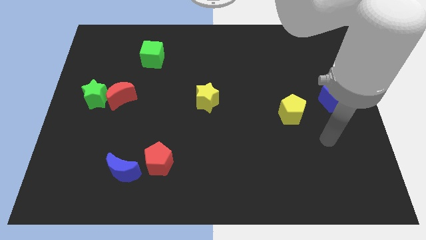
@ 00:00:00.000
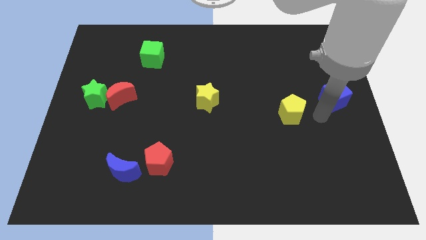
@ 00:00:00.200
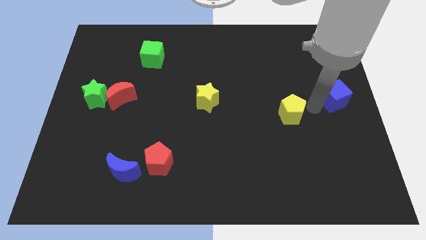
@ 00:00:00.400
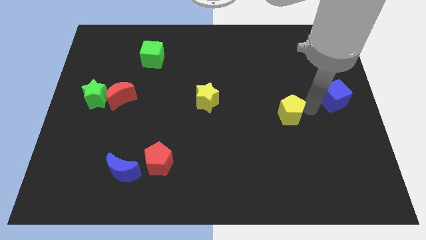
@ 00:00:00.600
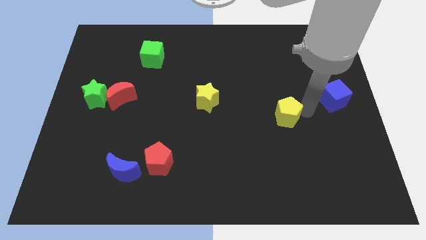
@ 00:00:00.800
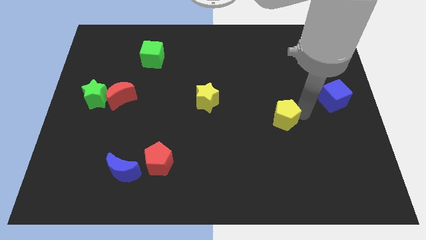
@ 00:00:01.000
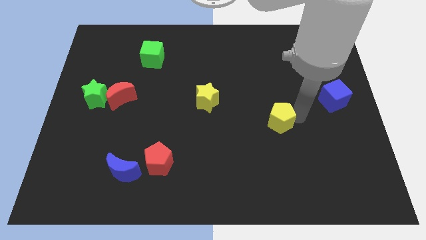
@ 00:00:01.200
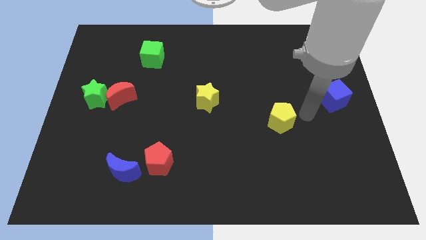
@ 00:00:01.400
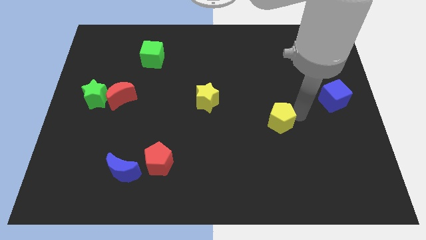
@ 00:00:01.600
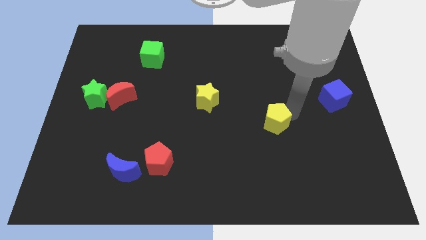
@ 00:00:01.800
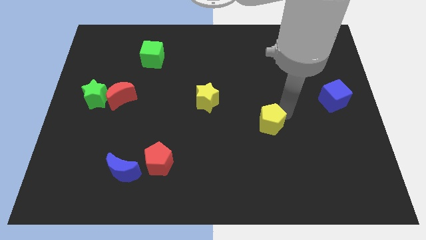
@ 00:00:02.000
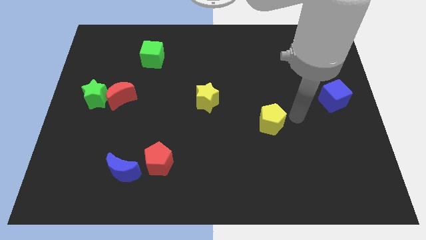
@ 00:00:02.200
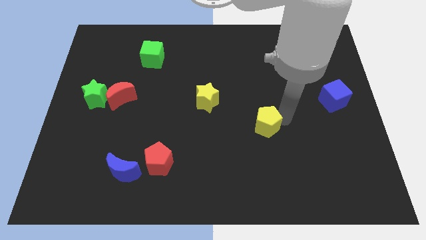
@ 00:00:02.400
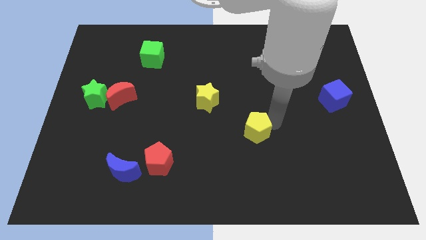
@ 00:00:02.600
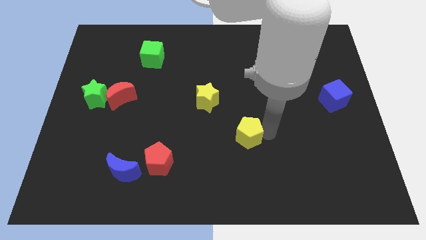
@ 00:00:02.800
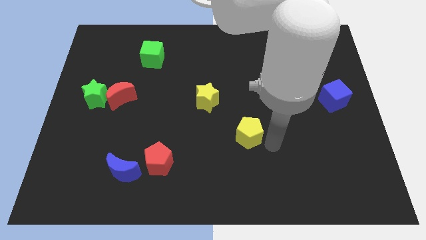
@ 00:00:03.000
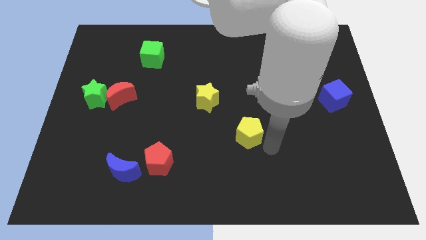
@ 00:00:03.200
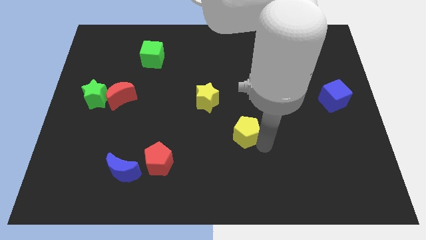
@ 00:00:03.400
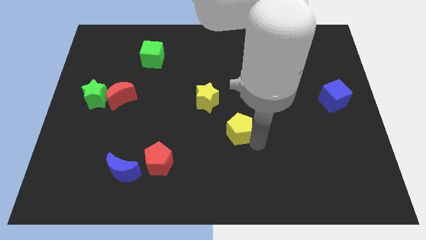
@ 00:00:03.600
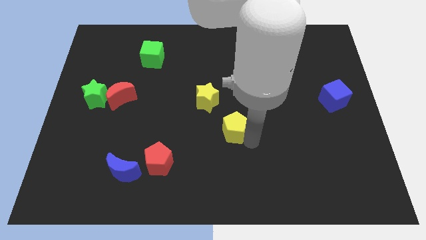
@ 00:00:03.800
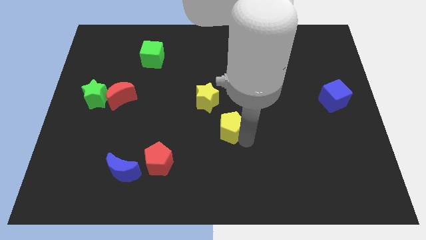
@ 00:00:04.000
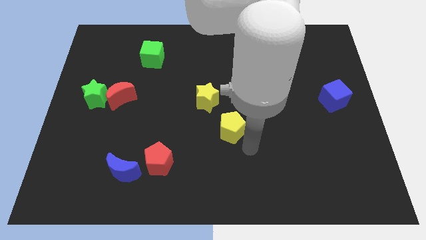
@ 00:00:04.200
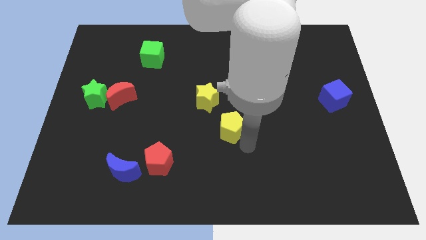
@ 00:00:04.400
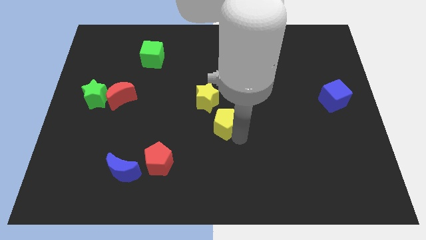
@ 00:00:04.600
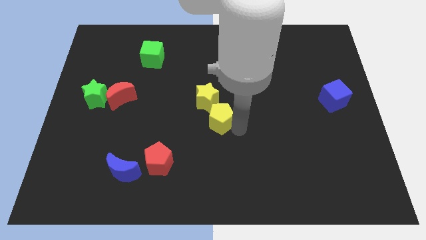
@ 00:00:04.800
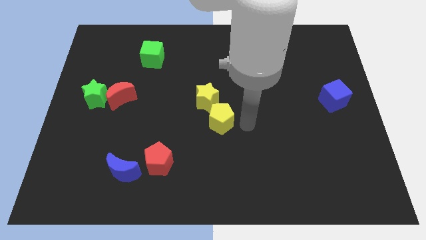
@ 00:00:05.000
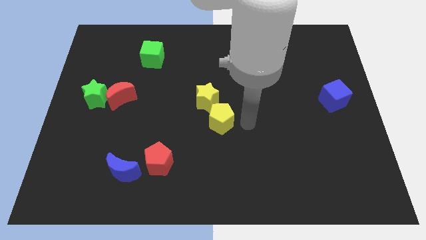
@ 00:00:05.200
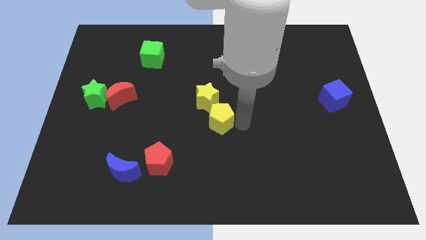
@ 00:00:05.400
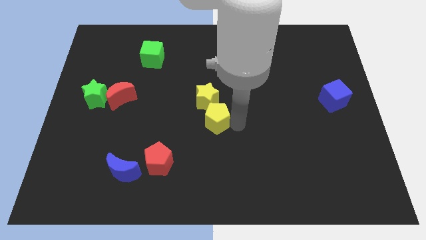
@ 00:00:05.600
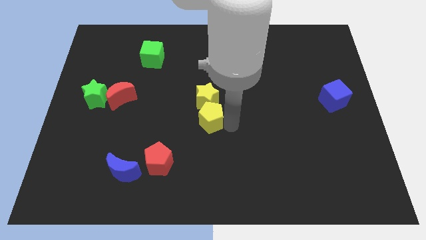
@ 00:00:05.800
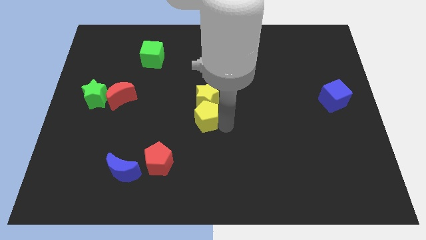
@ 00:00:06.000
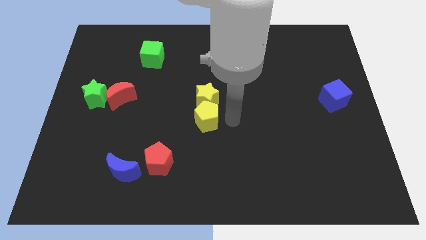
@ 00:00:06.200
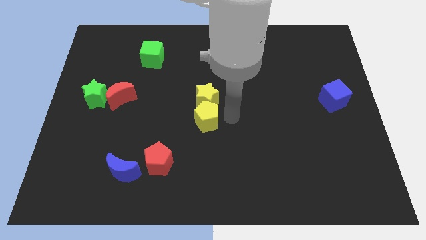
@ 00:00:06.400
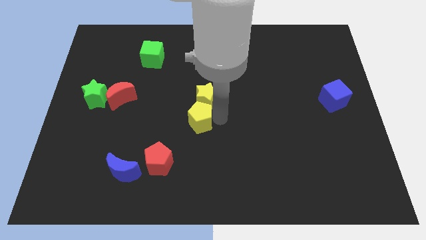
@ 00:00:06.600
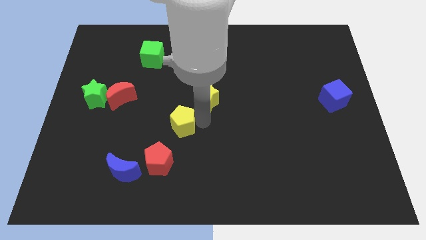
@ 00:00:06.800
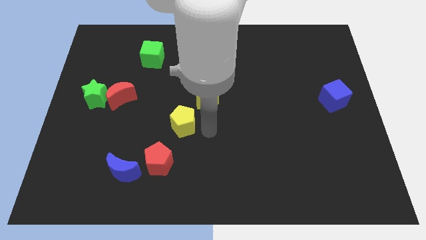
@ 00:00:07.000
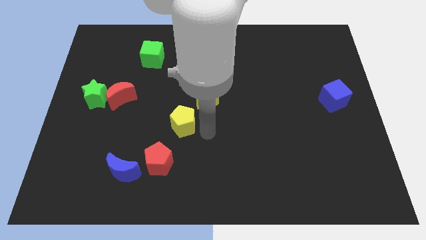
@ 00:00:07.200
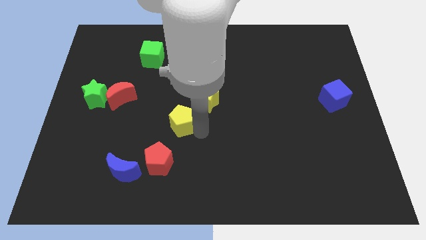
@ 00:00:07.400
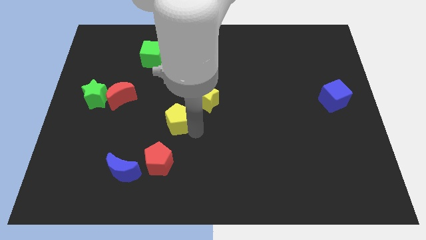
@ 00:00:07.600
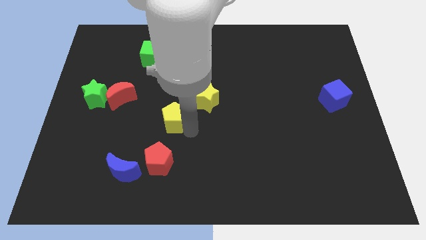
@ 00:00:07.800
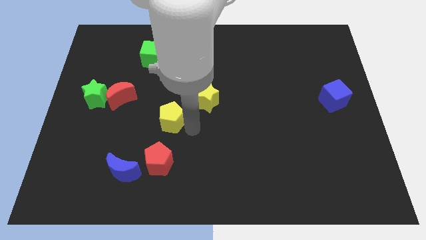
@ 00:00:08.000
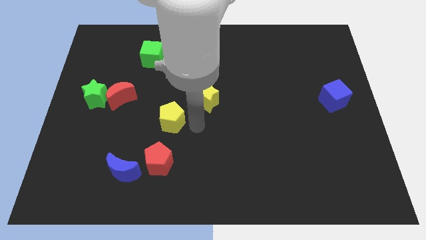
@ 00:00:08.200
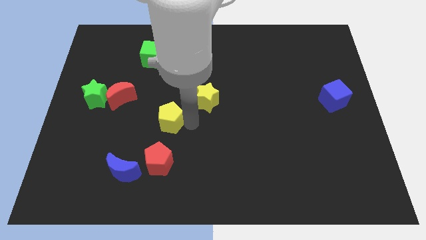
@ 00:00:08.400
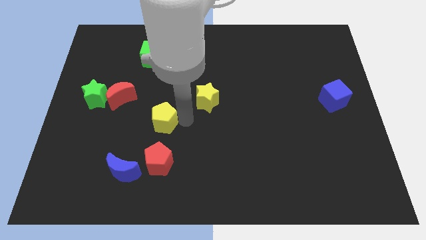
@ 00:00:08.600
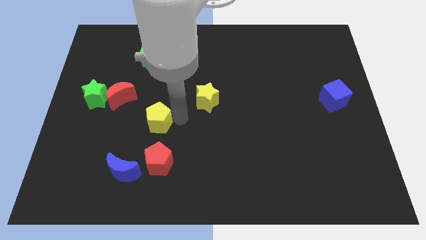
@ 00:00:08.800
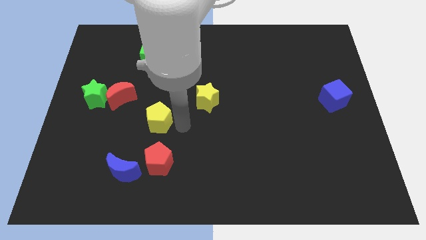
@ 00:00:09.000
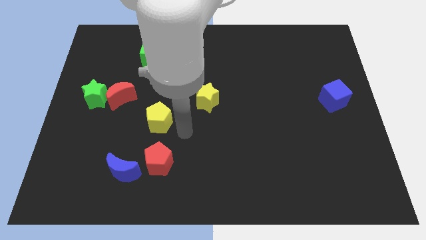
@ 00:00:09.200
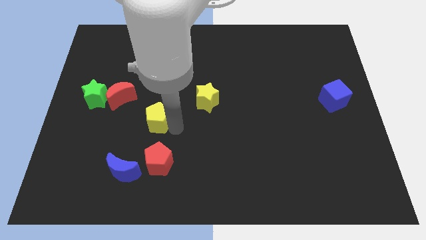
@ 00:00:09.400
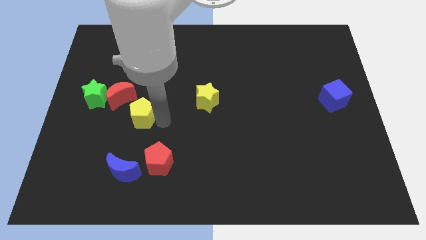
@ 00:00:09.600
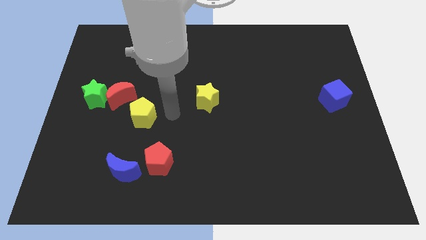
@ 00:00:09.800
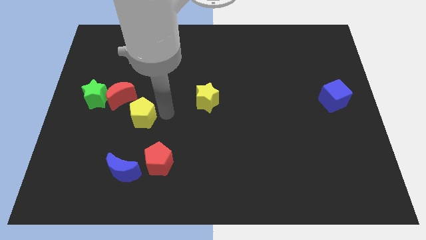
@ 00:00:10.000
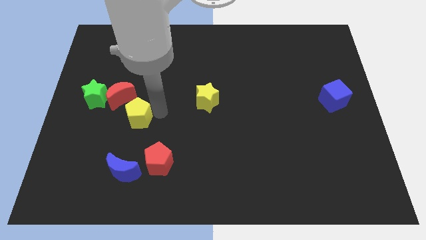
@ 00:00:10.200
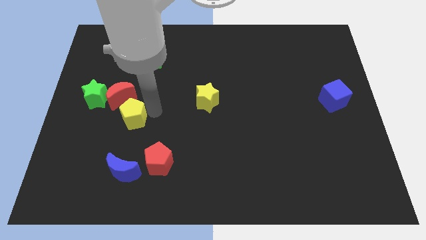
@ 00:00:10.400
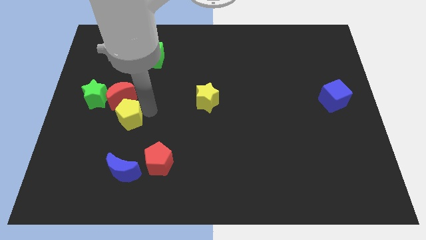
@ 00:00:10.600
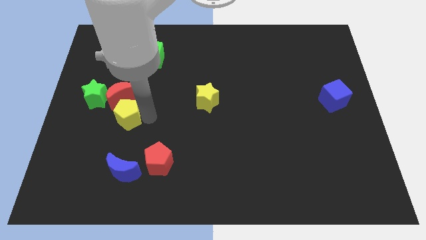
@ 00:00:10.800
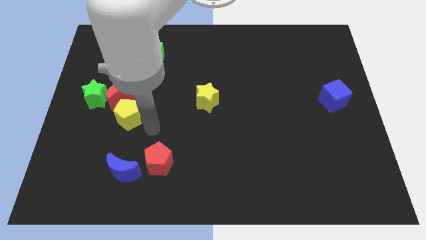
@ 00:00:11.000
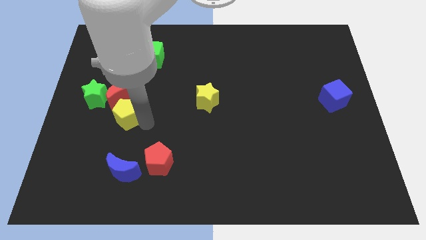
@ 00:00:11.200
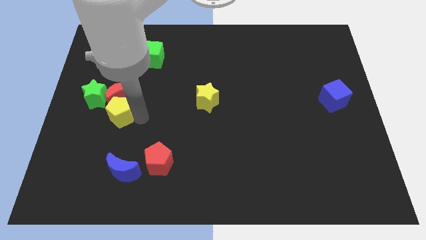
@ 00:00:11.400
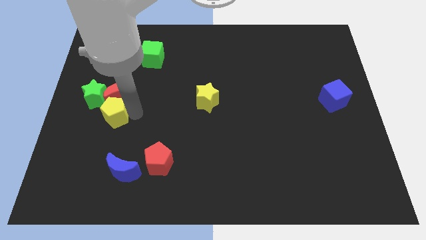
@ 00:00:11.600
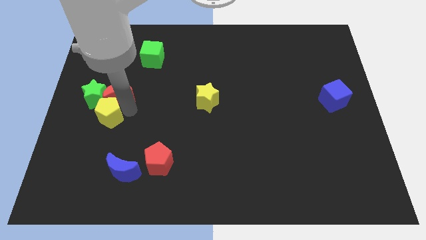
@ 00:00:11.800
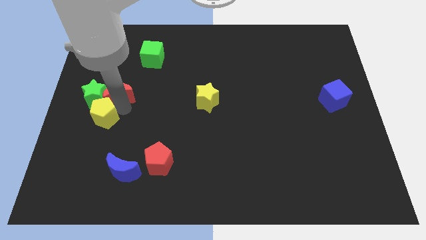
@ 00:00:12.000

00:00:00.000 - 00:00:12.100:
move the yellow pentagon to the green star
